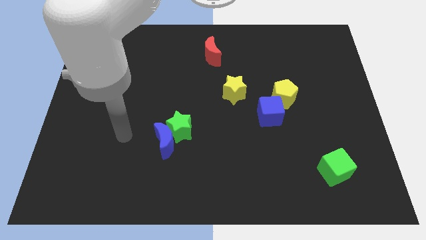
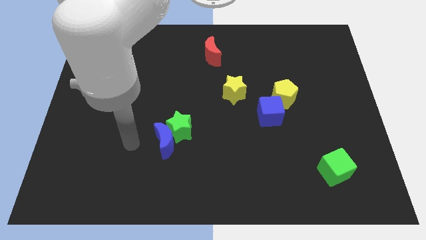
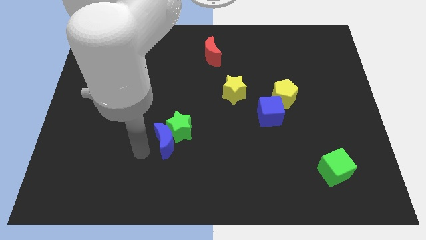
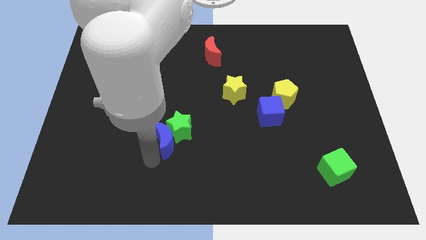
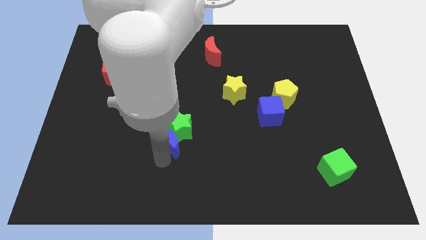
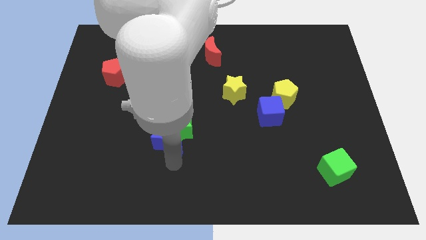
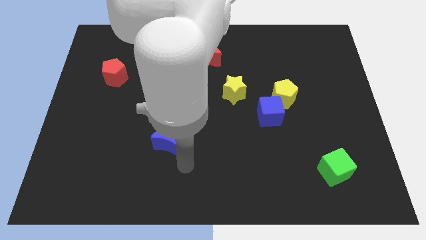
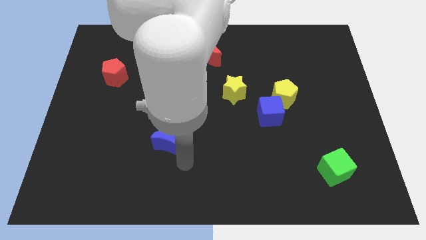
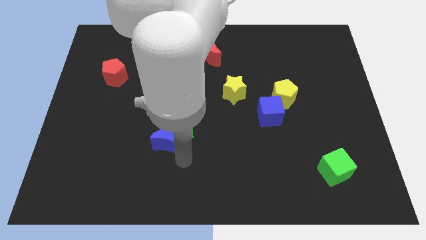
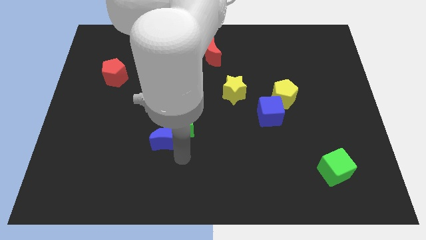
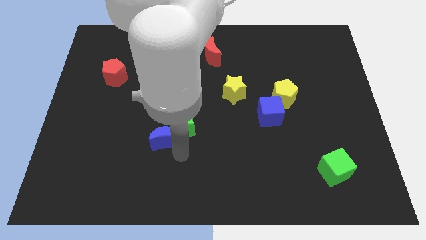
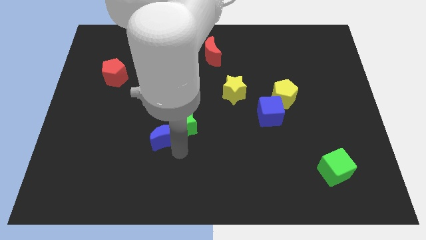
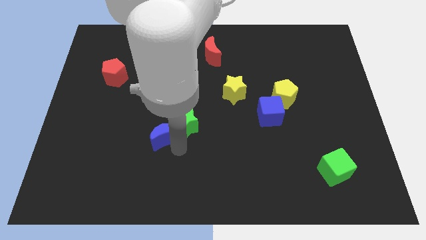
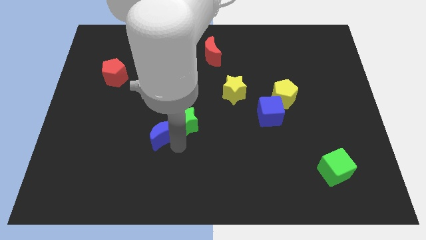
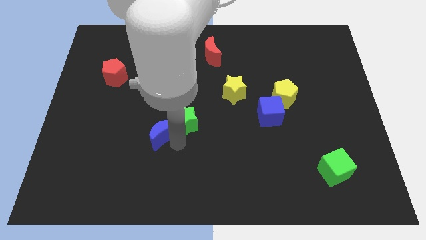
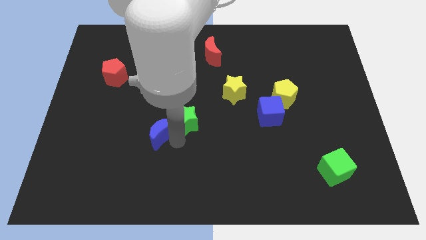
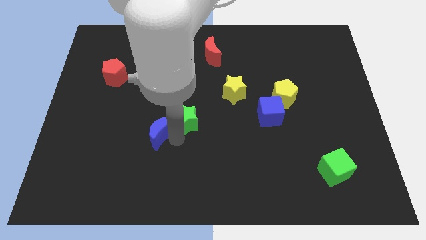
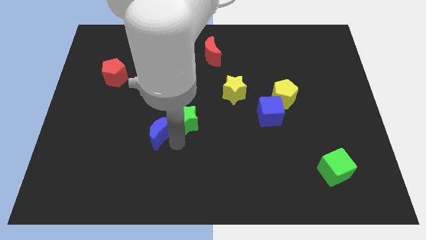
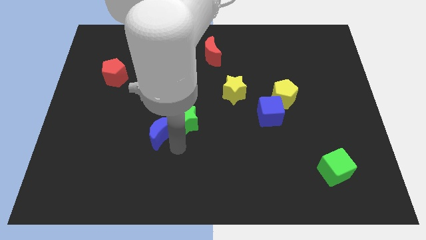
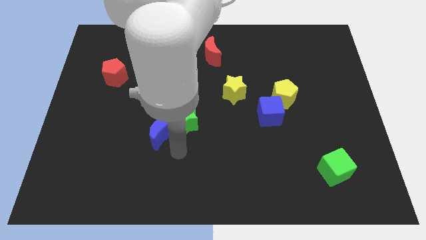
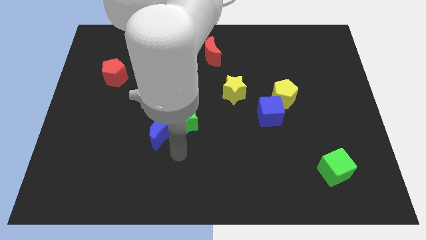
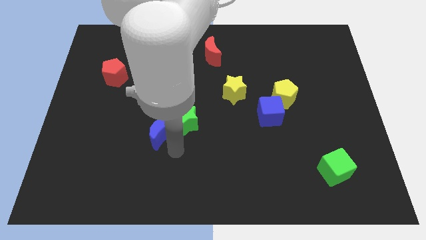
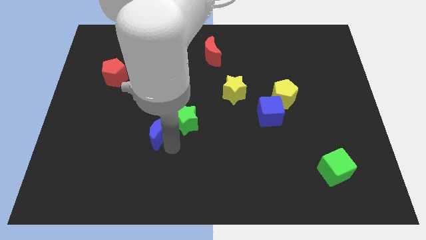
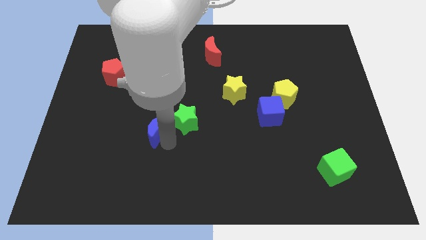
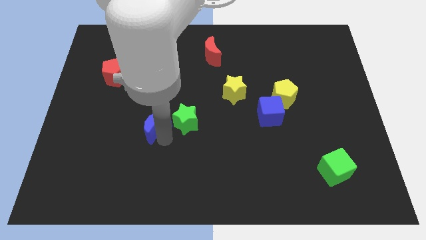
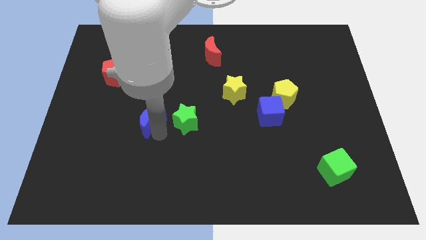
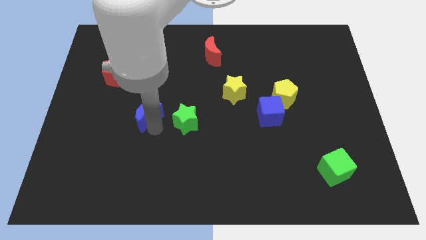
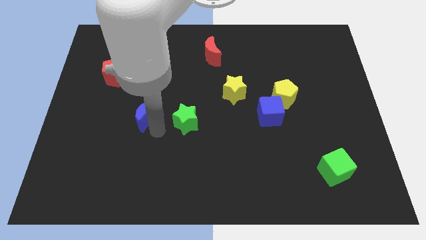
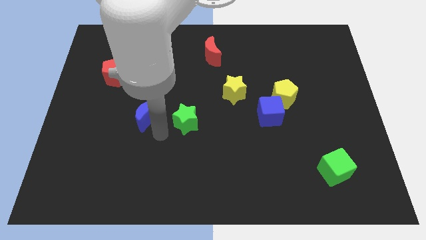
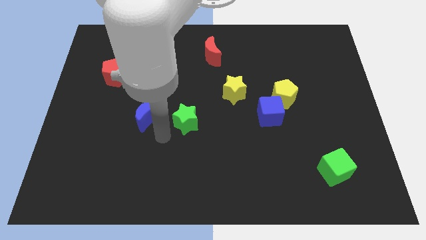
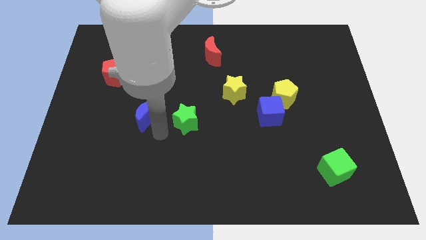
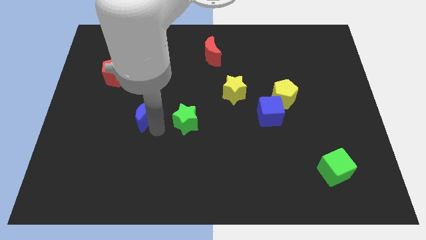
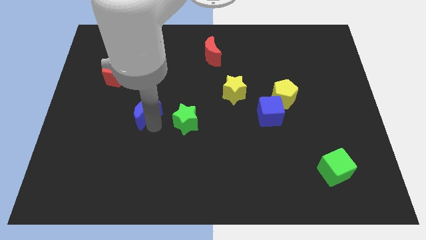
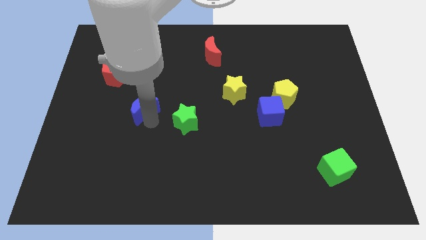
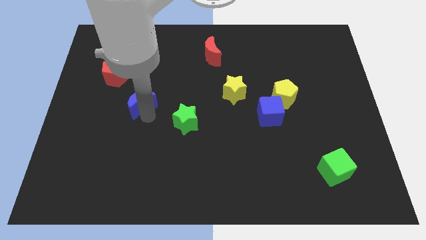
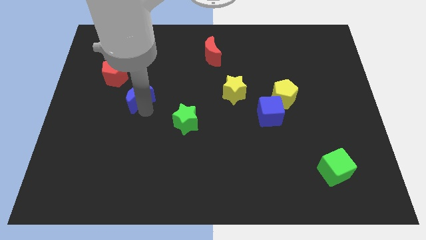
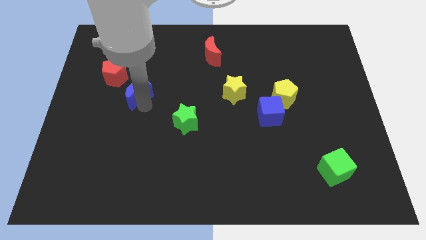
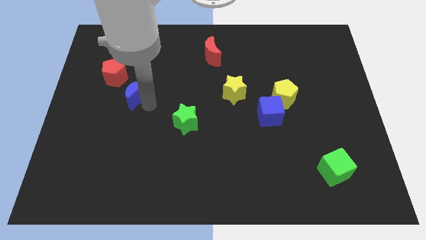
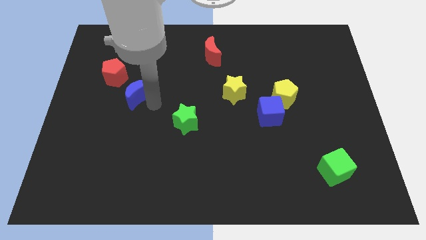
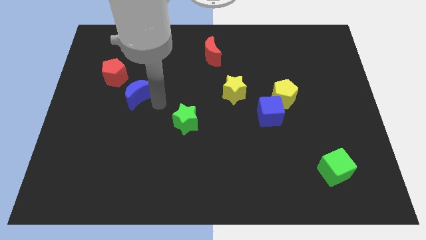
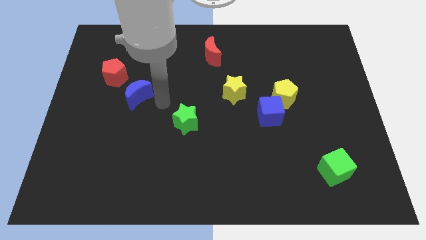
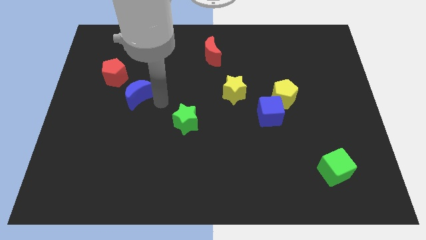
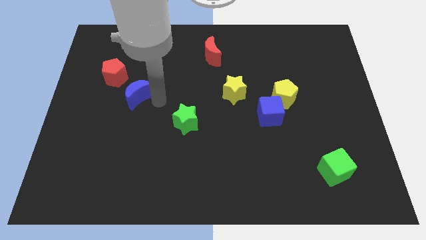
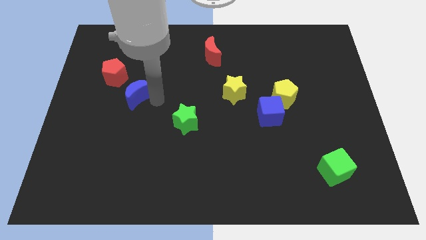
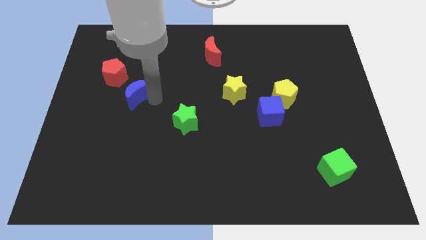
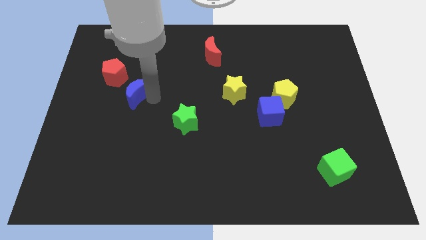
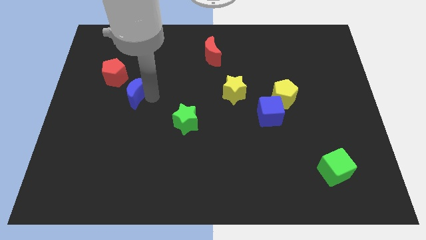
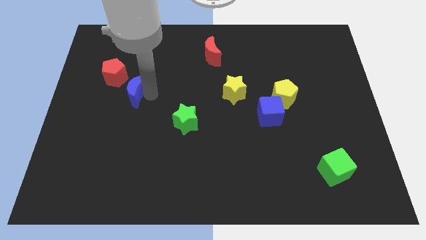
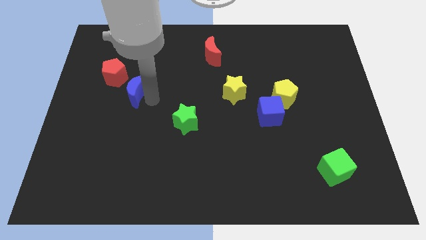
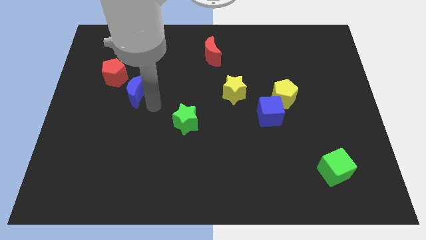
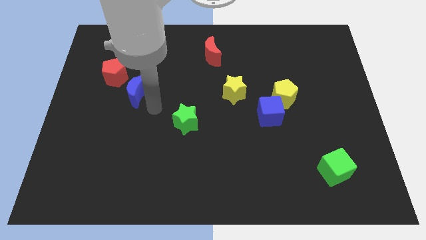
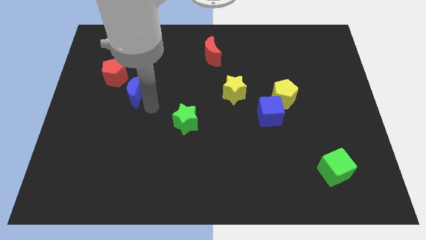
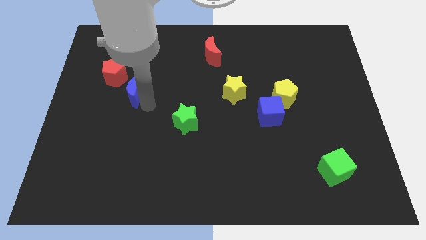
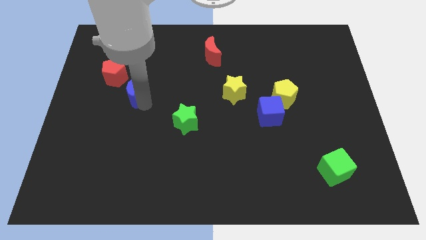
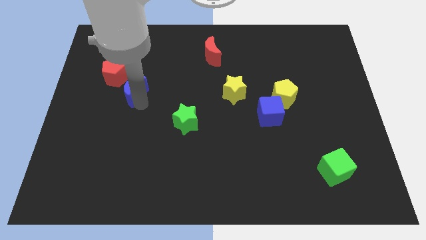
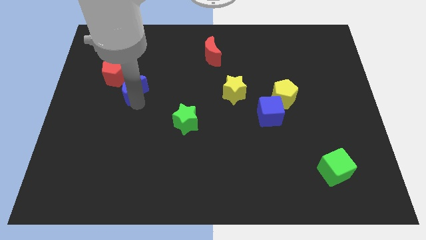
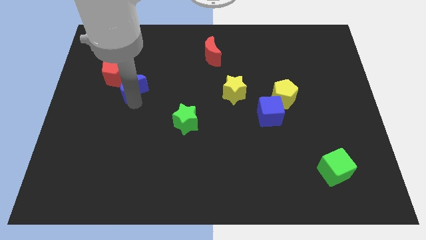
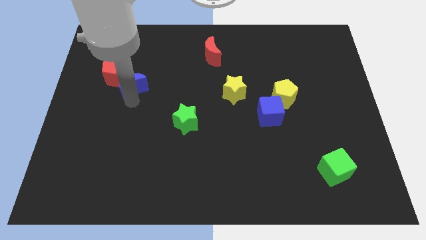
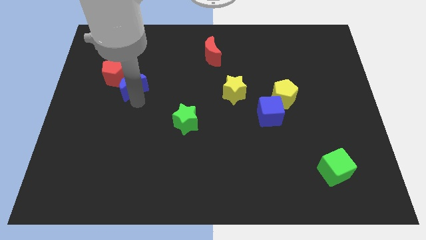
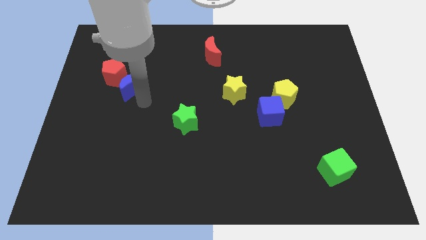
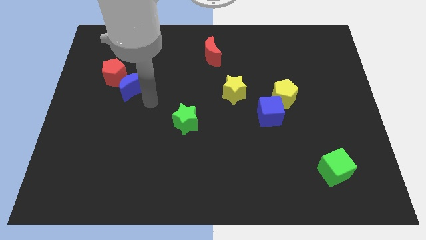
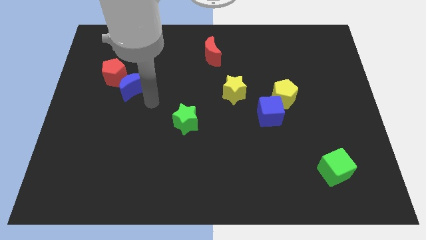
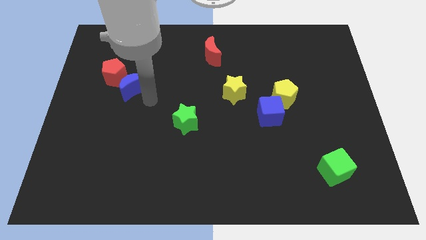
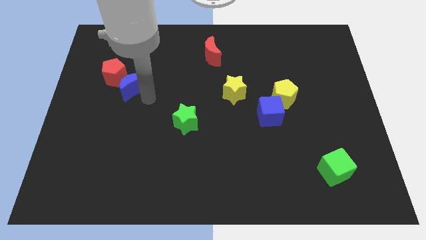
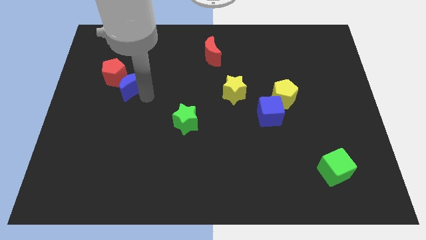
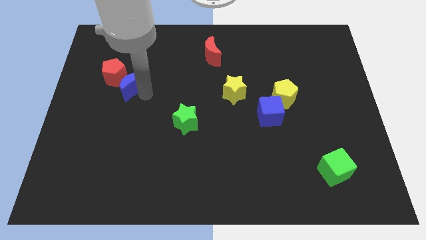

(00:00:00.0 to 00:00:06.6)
push the blue moon close to the red pentagon

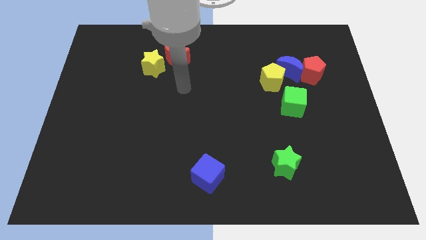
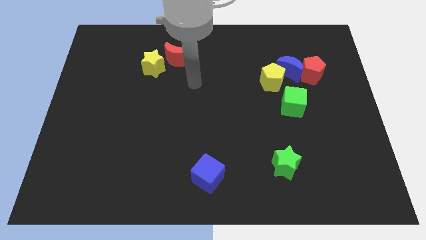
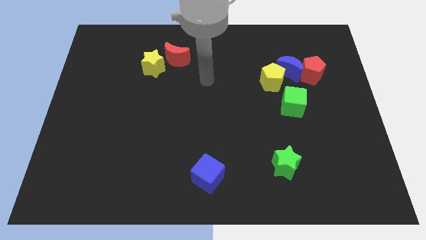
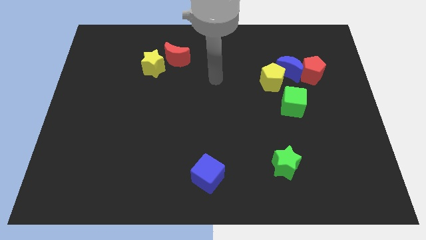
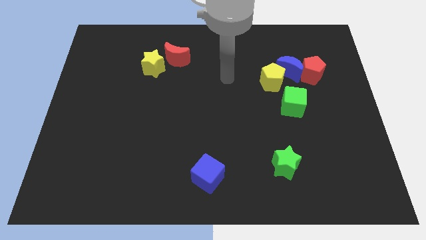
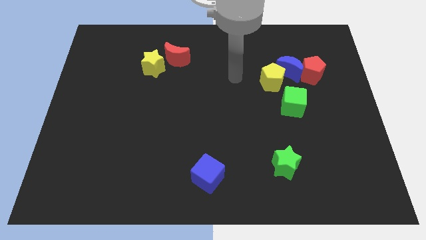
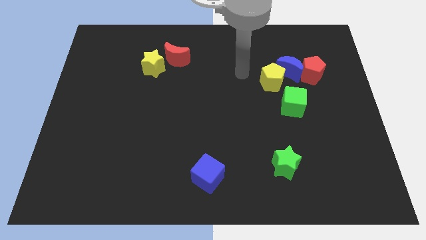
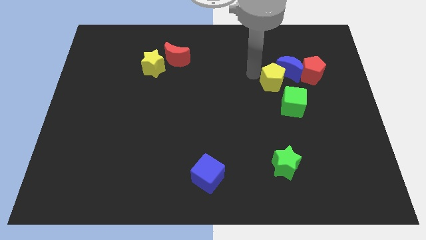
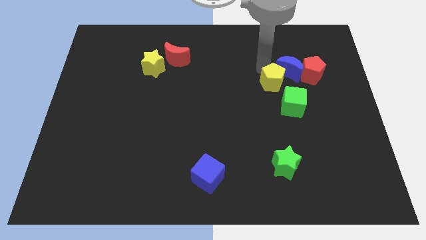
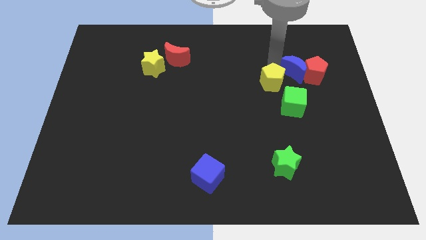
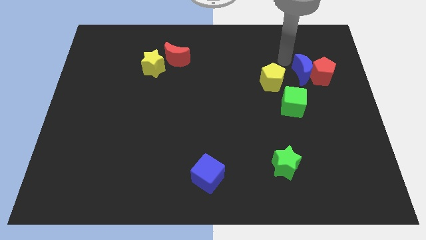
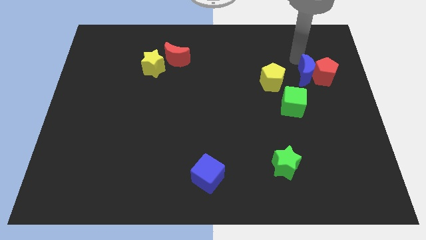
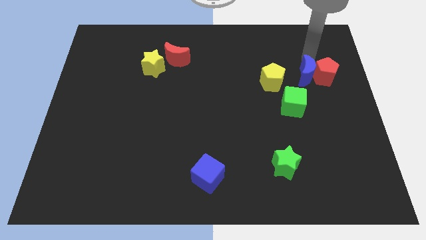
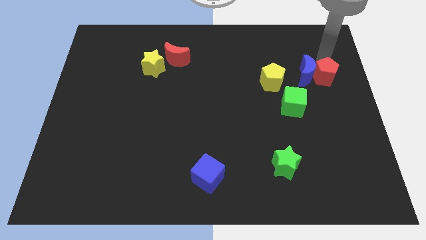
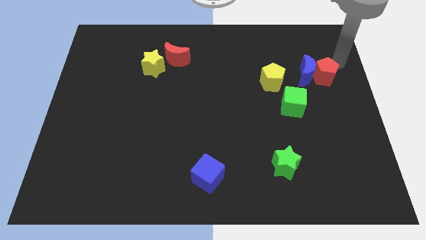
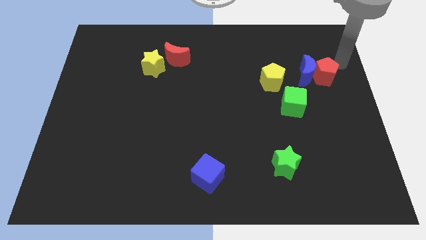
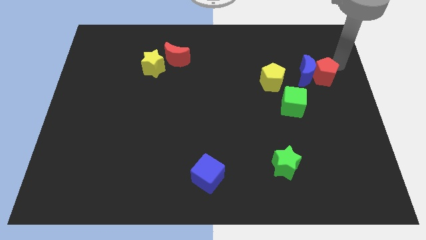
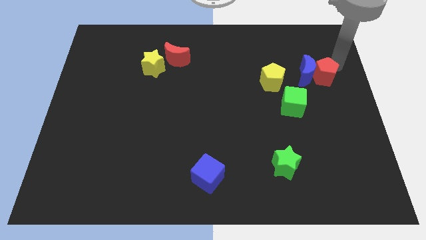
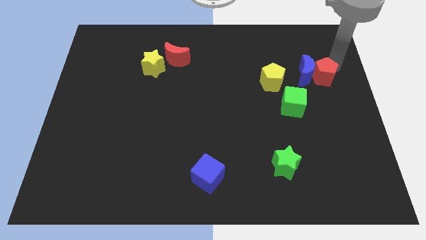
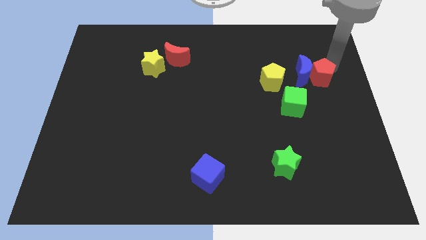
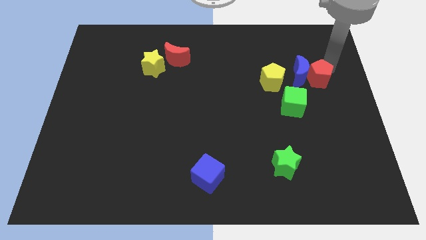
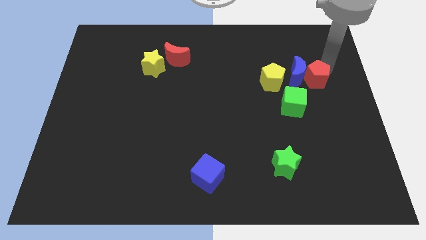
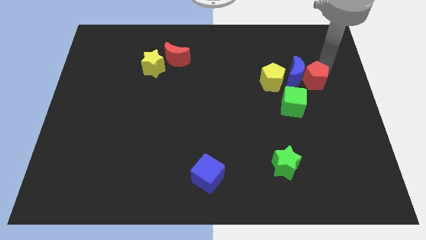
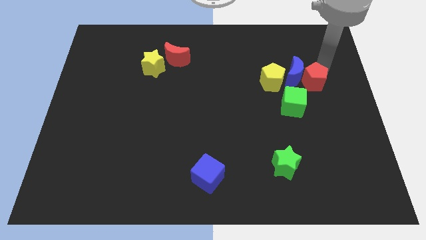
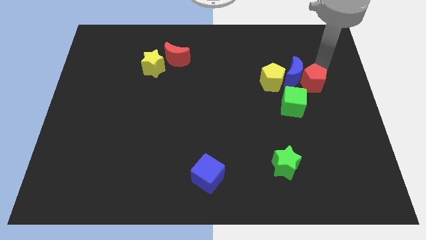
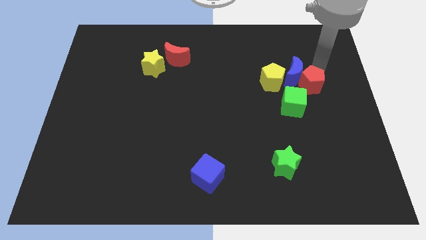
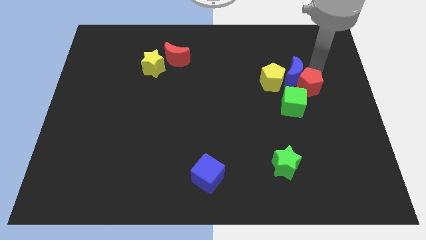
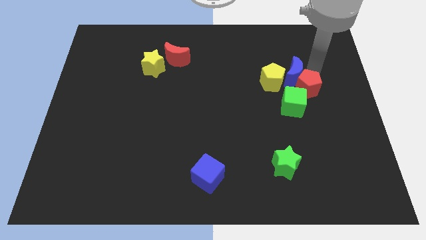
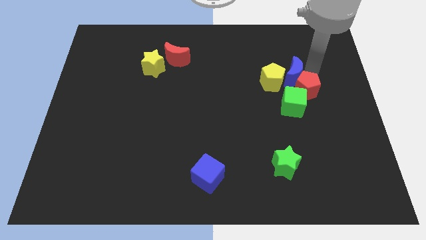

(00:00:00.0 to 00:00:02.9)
push the red pentagon to the green cube
